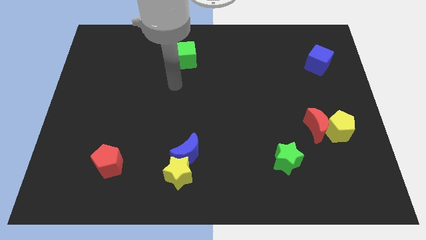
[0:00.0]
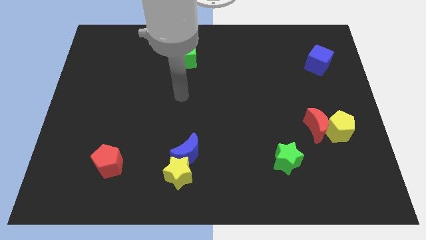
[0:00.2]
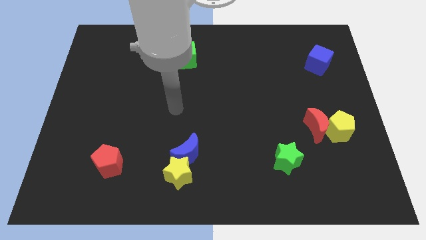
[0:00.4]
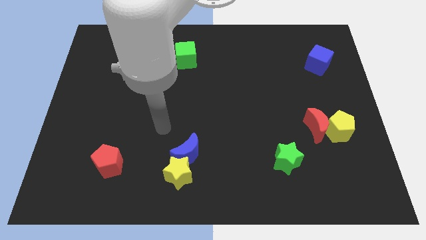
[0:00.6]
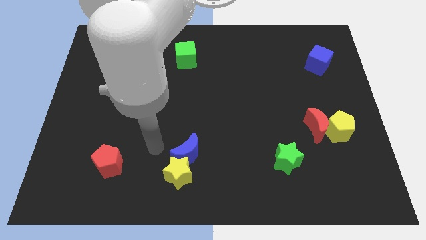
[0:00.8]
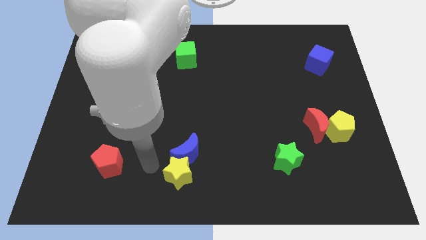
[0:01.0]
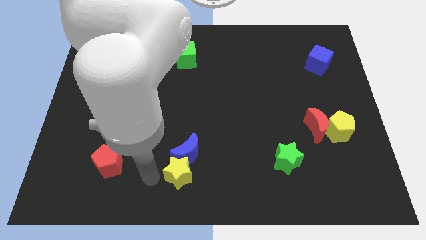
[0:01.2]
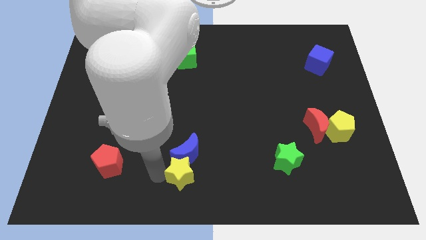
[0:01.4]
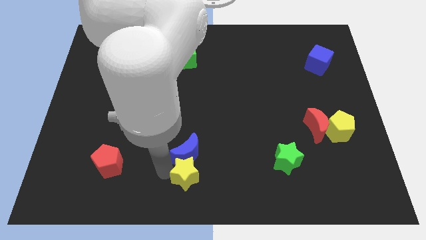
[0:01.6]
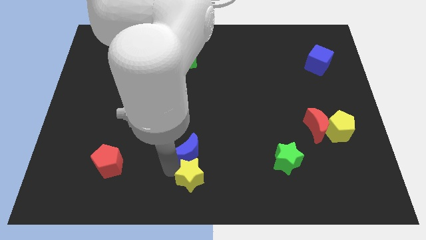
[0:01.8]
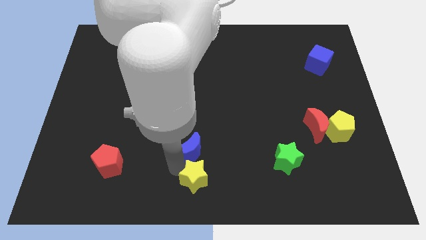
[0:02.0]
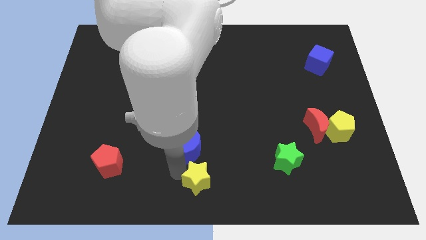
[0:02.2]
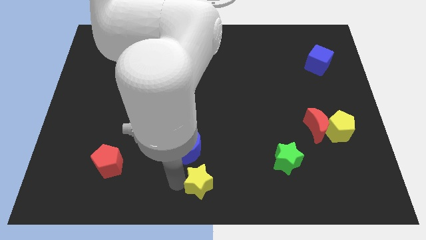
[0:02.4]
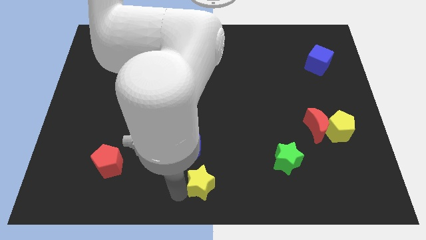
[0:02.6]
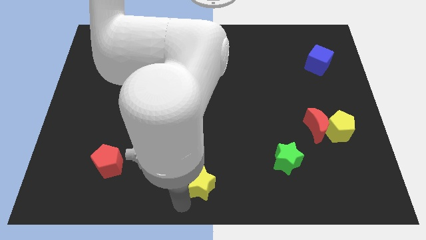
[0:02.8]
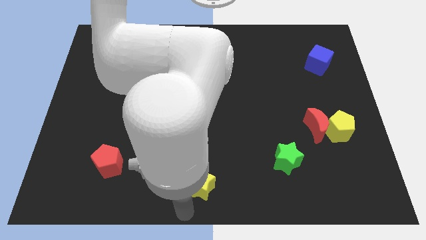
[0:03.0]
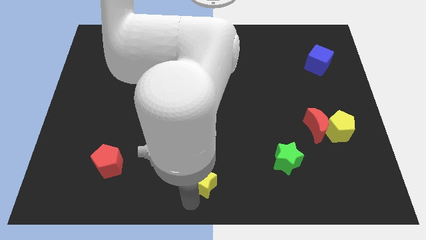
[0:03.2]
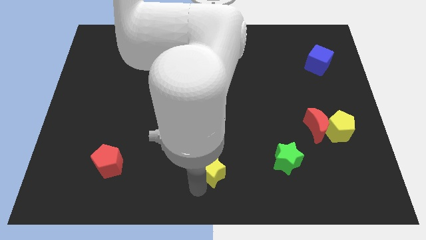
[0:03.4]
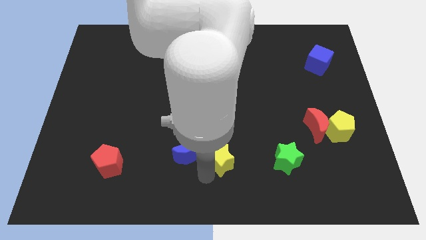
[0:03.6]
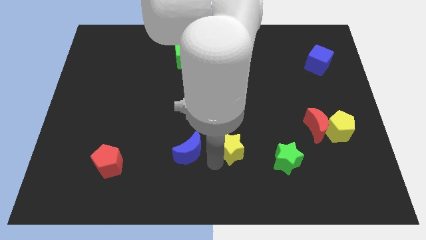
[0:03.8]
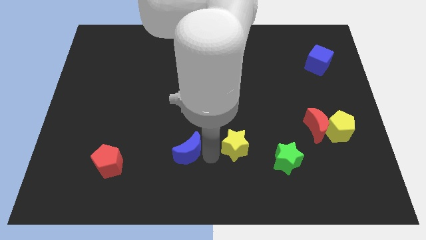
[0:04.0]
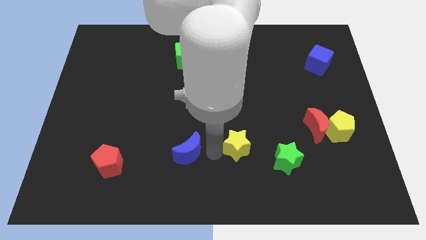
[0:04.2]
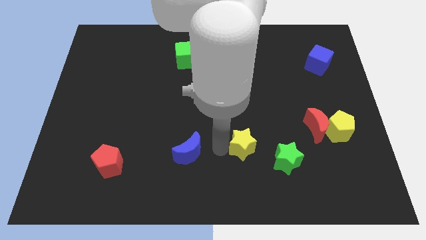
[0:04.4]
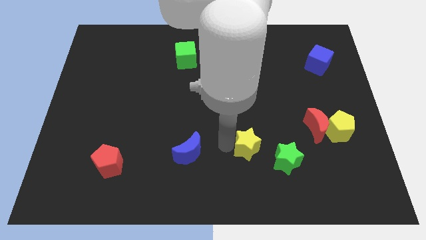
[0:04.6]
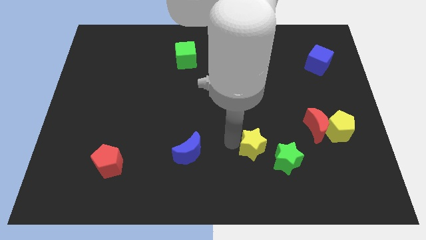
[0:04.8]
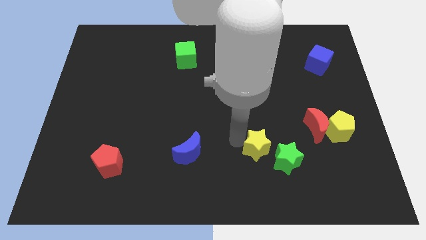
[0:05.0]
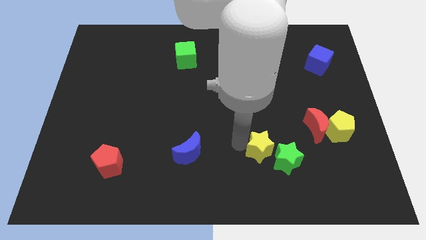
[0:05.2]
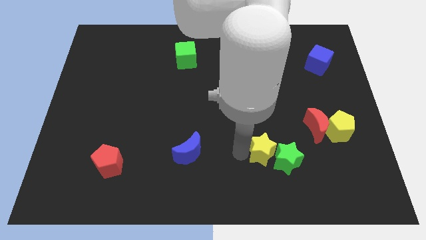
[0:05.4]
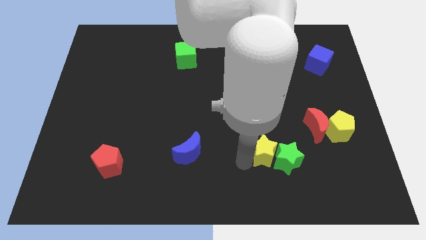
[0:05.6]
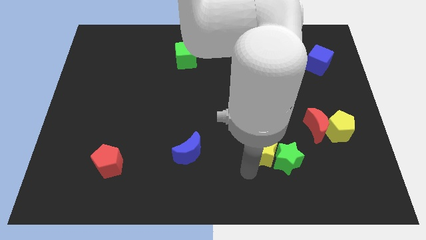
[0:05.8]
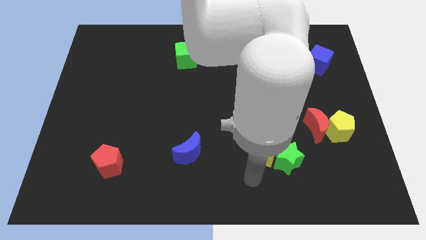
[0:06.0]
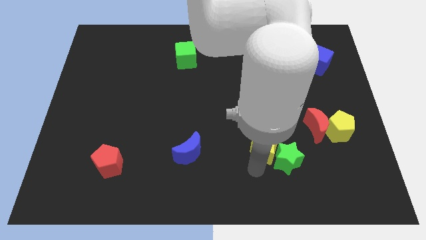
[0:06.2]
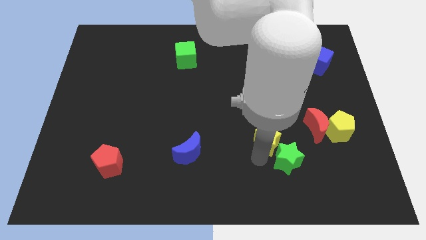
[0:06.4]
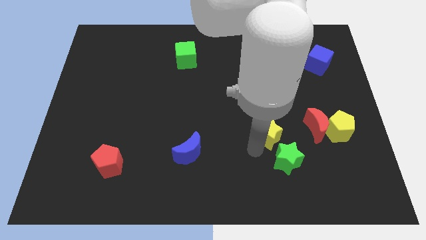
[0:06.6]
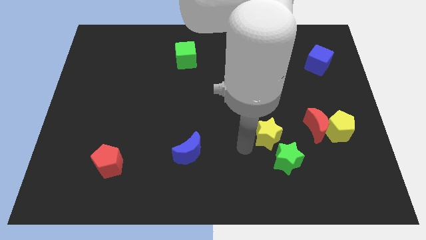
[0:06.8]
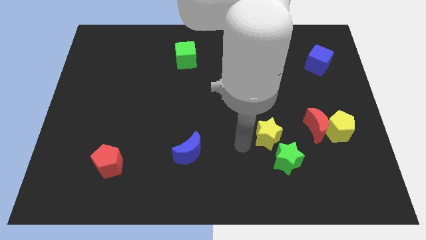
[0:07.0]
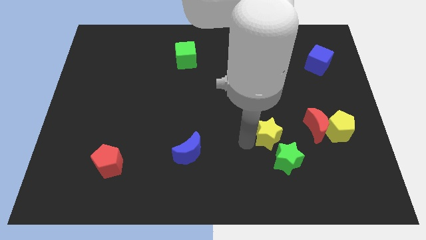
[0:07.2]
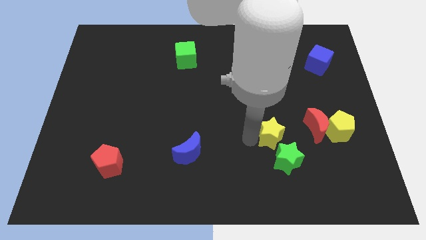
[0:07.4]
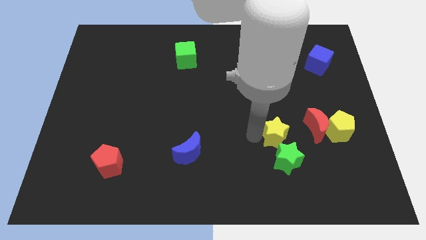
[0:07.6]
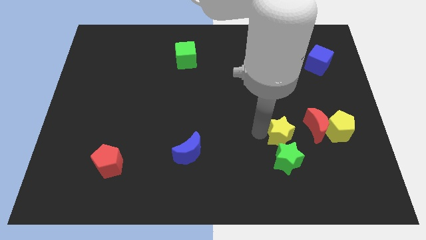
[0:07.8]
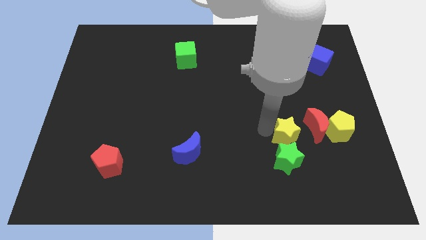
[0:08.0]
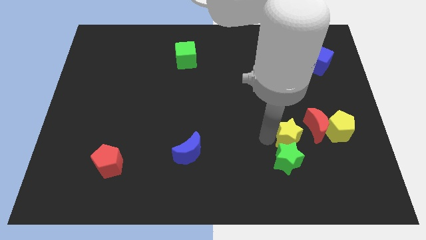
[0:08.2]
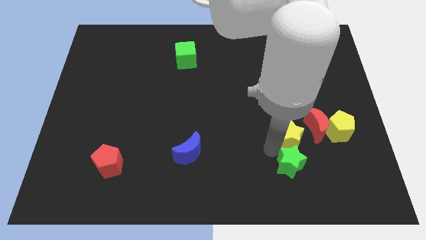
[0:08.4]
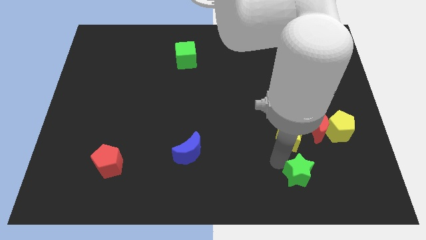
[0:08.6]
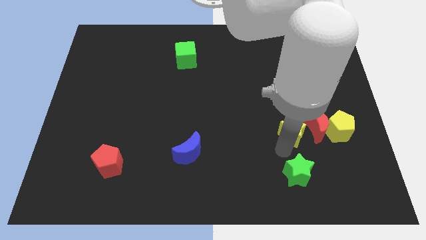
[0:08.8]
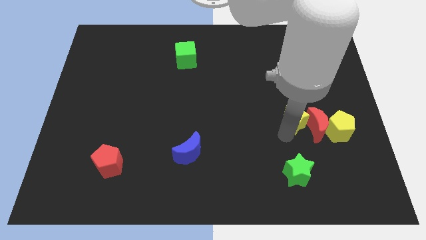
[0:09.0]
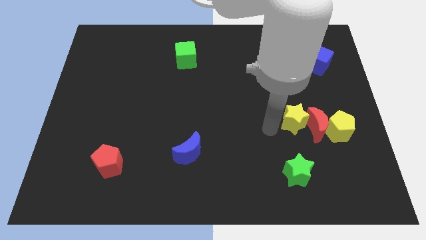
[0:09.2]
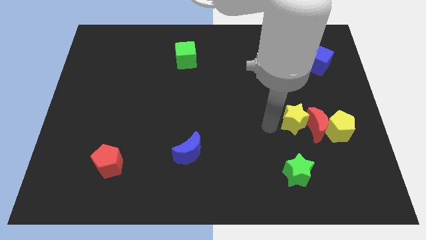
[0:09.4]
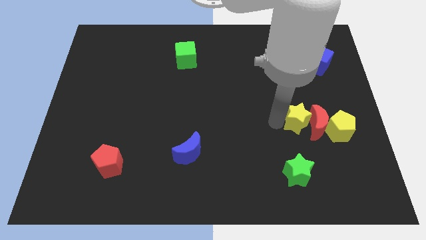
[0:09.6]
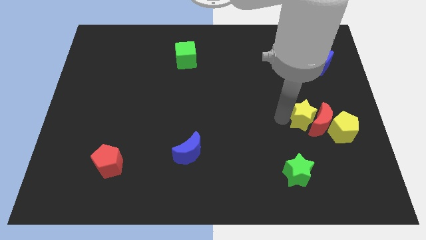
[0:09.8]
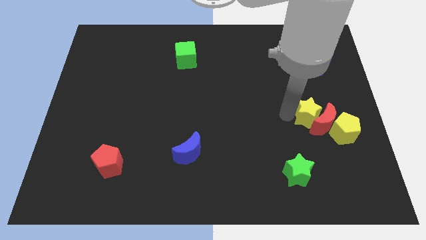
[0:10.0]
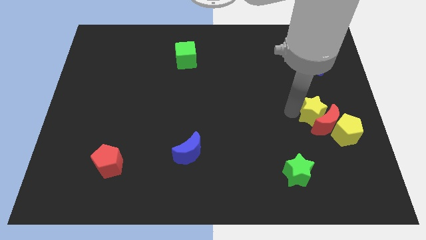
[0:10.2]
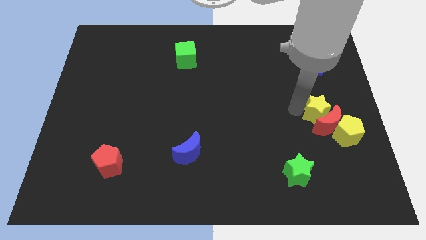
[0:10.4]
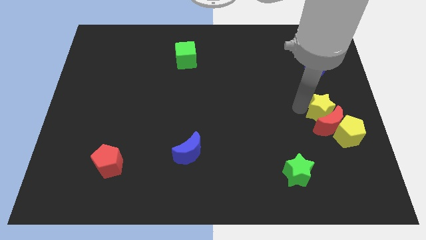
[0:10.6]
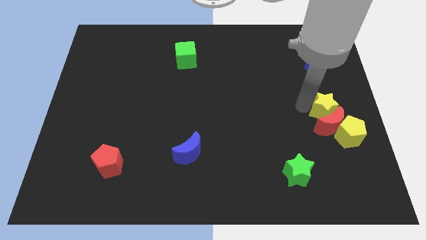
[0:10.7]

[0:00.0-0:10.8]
push the yellow star to the right side

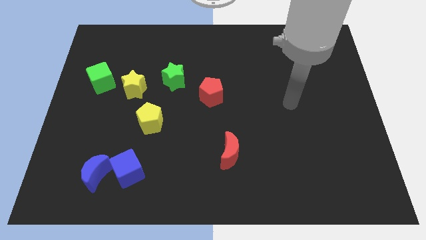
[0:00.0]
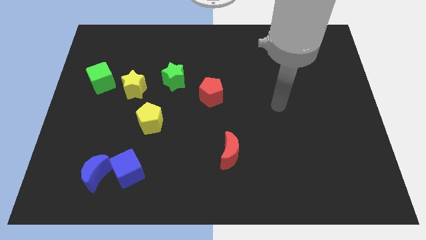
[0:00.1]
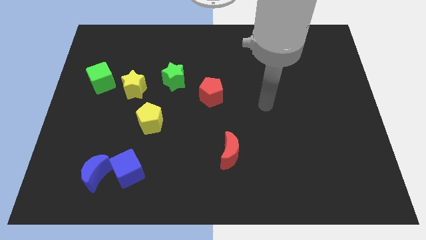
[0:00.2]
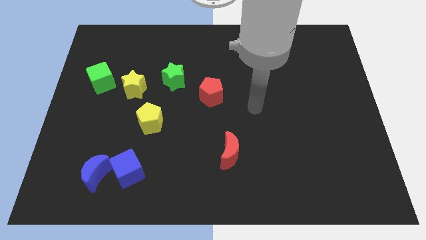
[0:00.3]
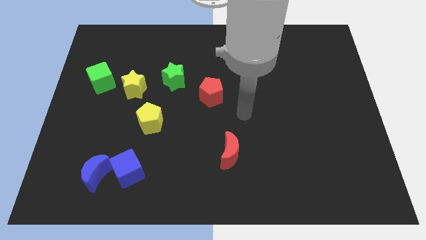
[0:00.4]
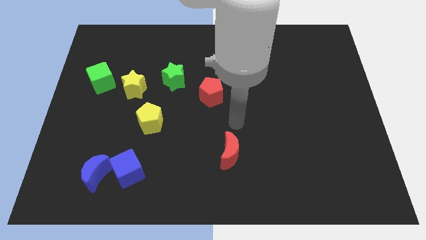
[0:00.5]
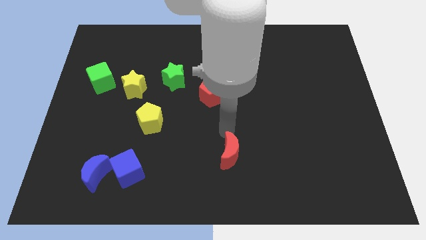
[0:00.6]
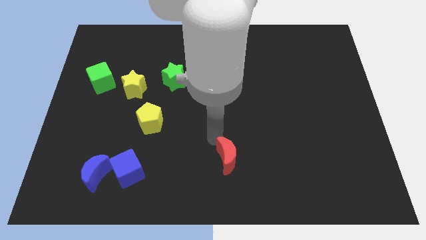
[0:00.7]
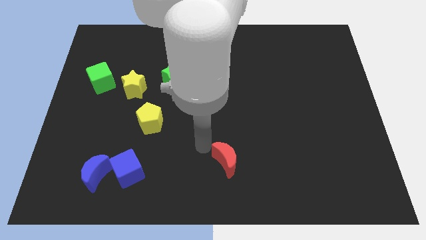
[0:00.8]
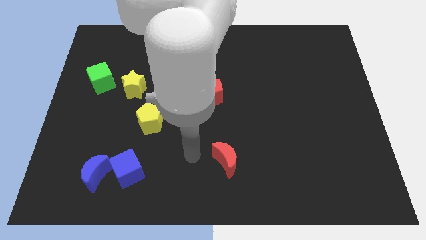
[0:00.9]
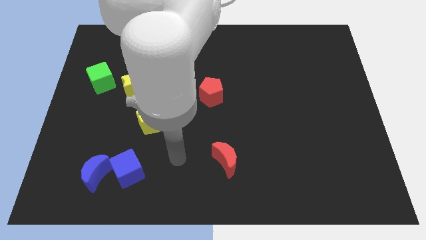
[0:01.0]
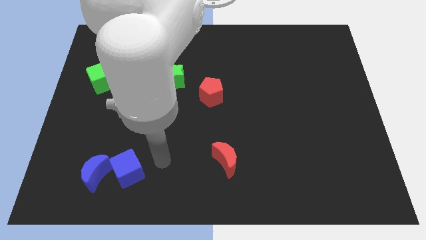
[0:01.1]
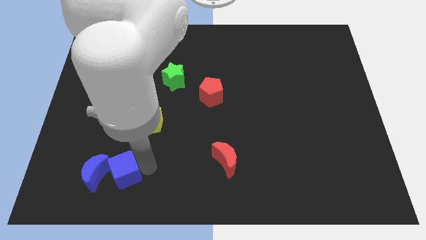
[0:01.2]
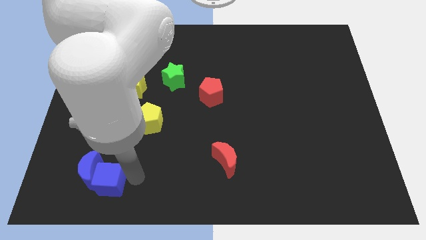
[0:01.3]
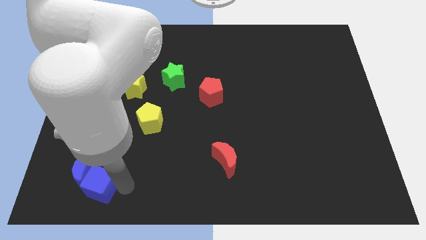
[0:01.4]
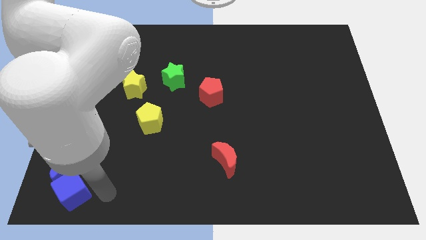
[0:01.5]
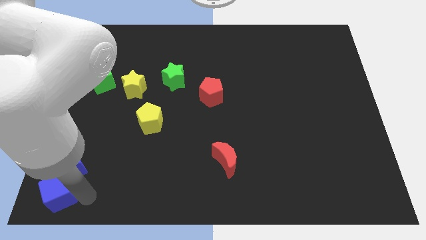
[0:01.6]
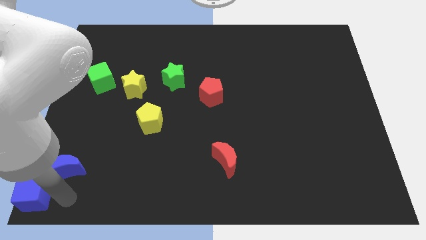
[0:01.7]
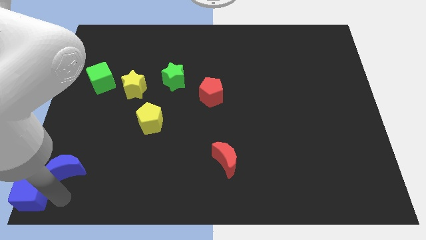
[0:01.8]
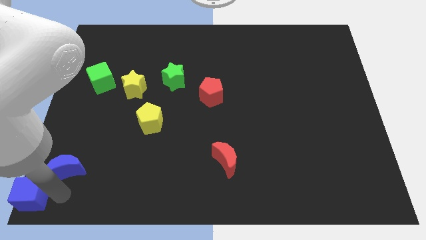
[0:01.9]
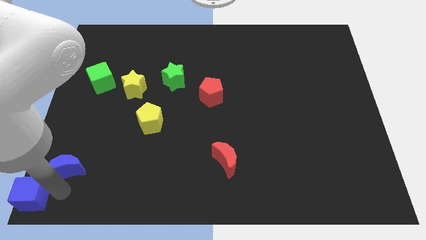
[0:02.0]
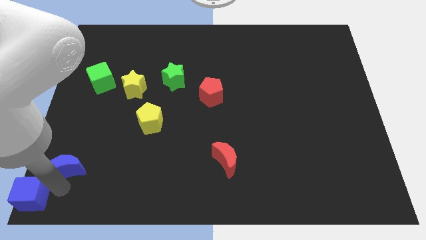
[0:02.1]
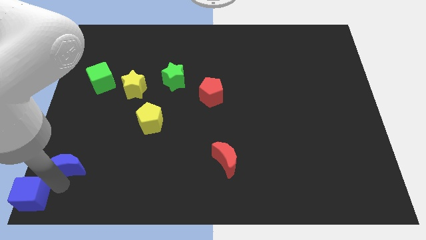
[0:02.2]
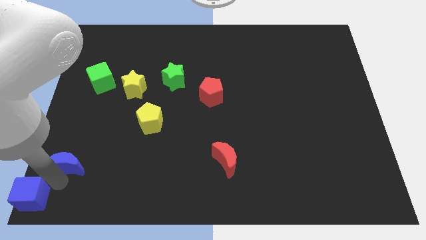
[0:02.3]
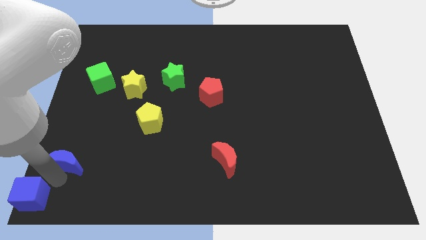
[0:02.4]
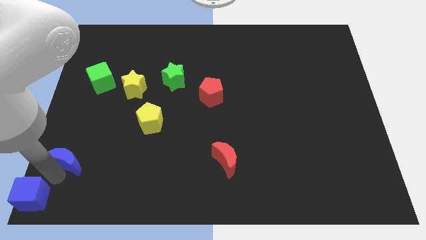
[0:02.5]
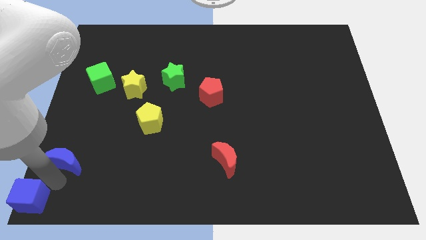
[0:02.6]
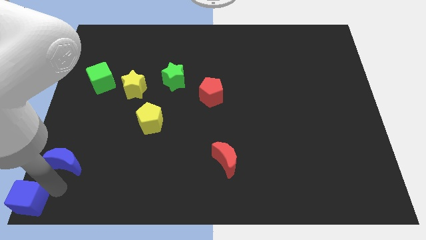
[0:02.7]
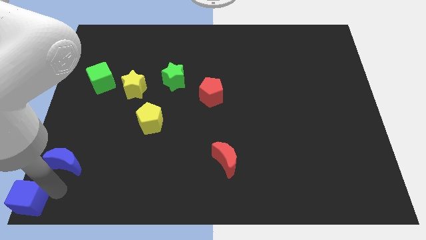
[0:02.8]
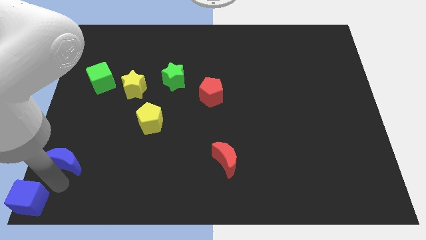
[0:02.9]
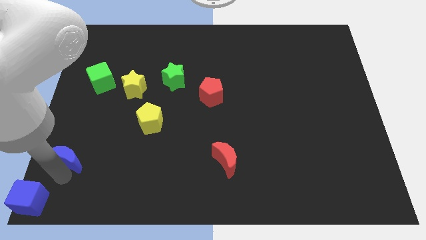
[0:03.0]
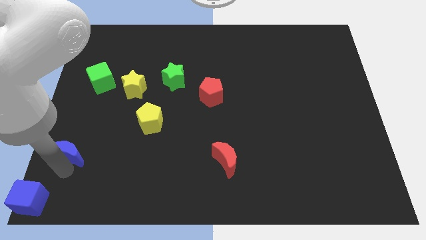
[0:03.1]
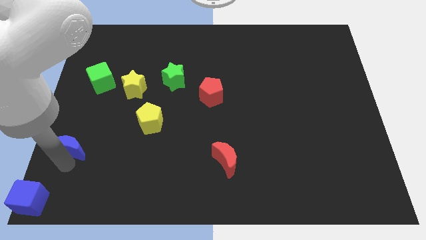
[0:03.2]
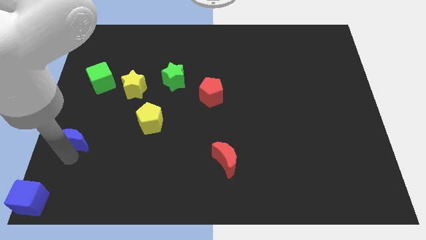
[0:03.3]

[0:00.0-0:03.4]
push the blue moon to the left side
